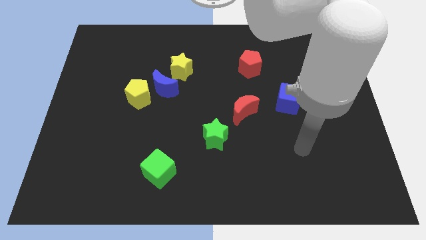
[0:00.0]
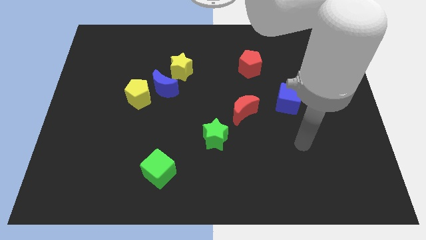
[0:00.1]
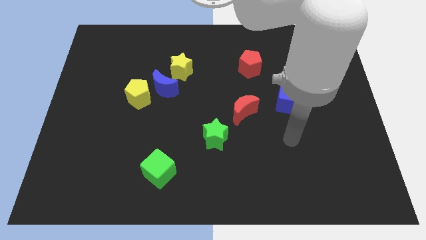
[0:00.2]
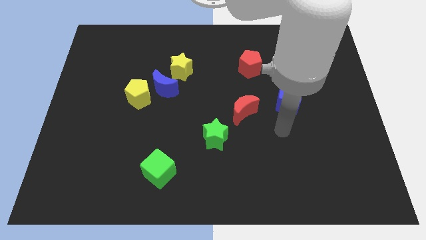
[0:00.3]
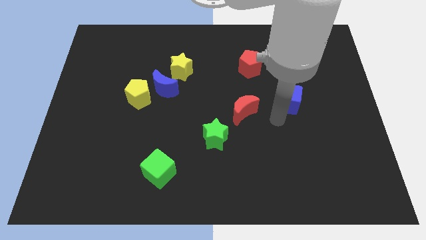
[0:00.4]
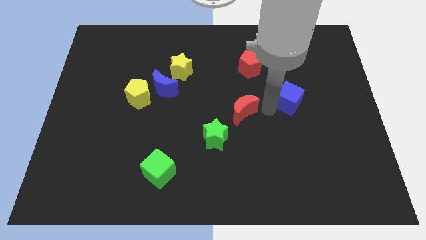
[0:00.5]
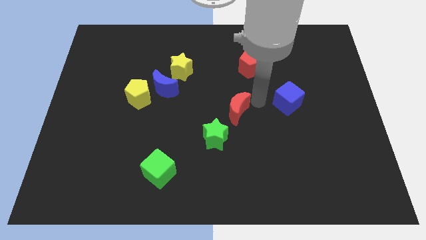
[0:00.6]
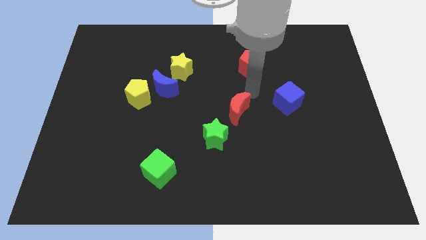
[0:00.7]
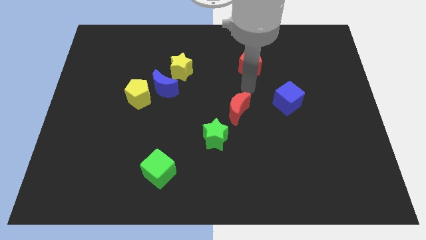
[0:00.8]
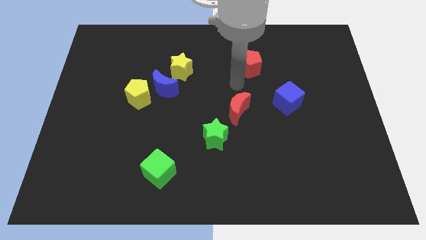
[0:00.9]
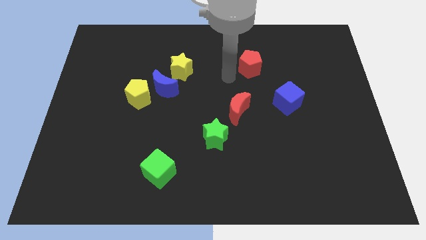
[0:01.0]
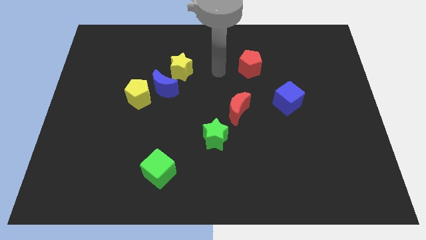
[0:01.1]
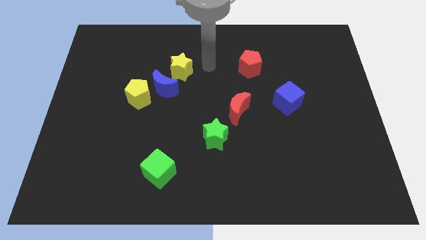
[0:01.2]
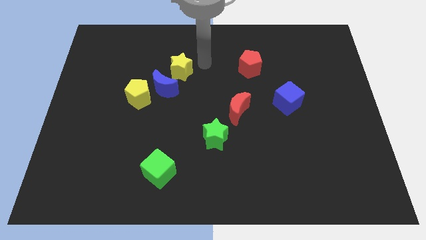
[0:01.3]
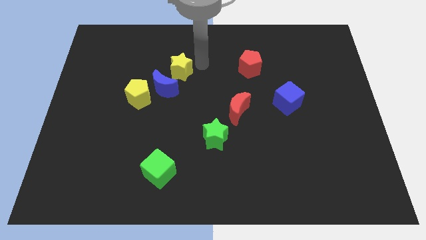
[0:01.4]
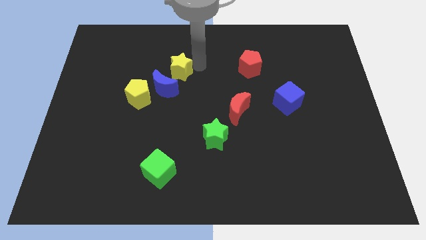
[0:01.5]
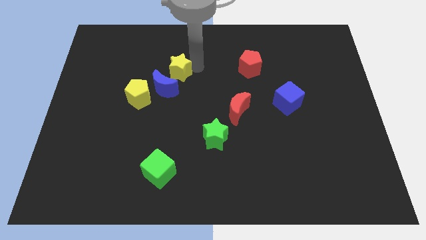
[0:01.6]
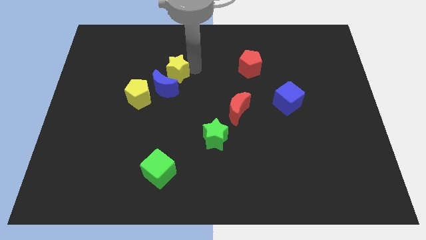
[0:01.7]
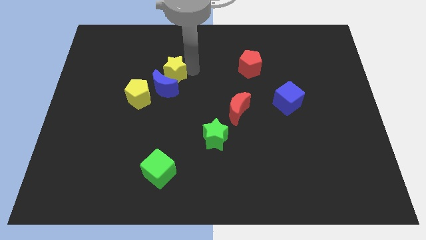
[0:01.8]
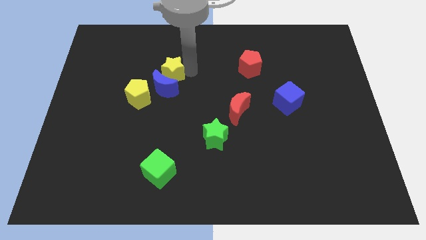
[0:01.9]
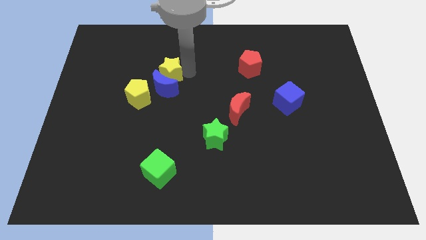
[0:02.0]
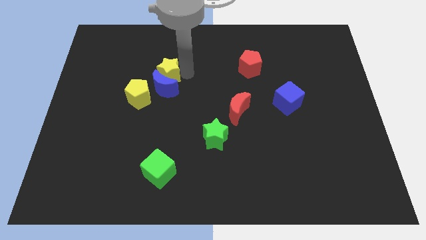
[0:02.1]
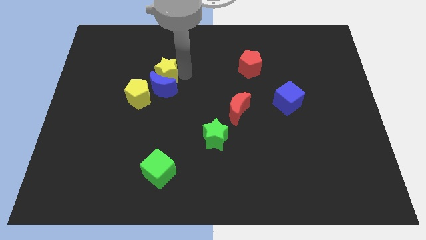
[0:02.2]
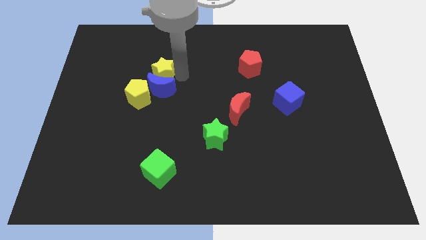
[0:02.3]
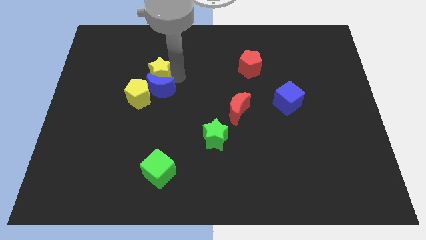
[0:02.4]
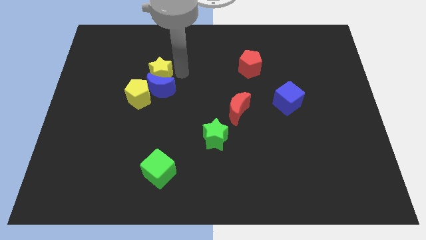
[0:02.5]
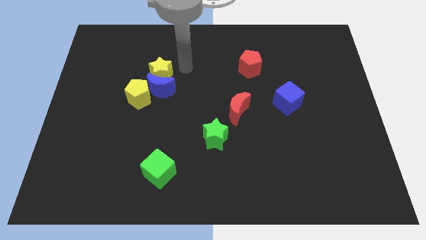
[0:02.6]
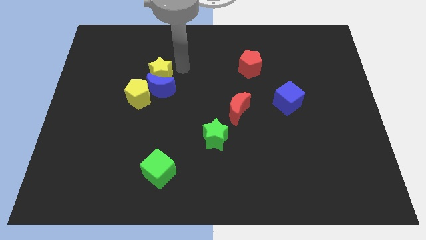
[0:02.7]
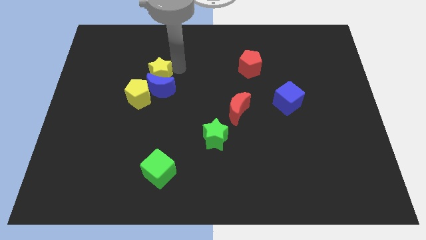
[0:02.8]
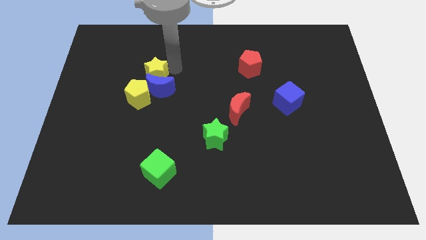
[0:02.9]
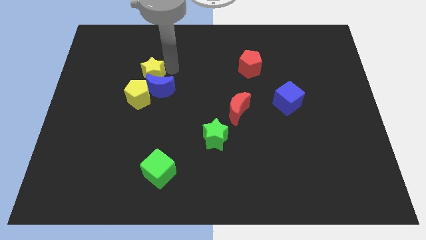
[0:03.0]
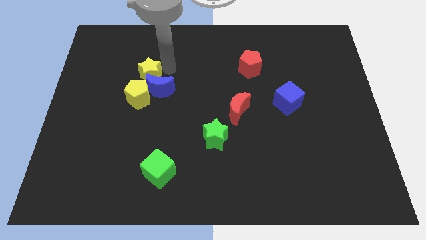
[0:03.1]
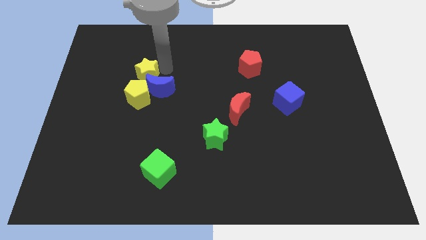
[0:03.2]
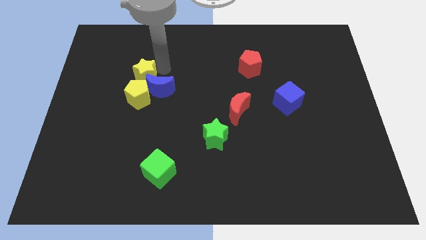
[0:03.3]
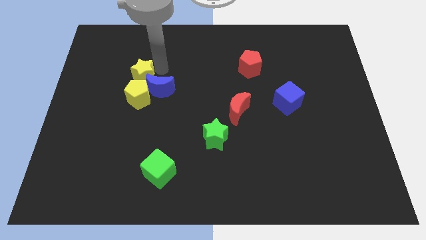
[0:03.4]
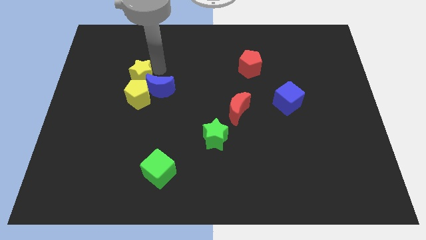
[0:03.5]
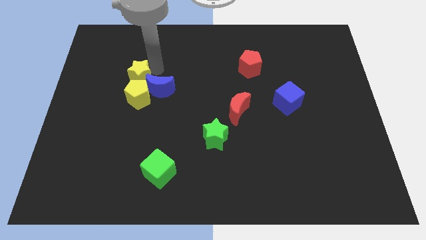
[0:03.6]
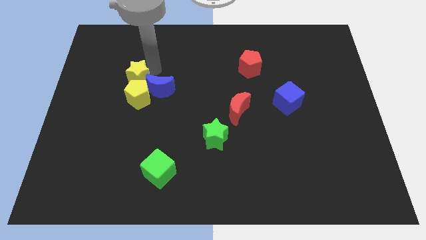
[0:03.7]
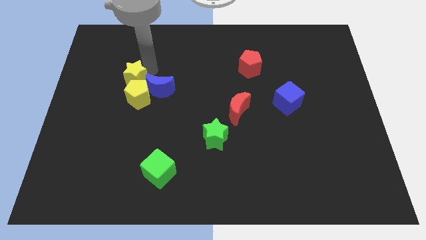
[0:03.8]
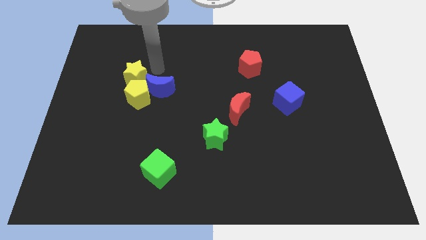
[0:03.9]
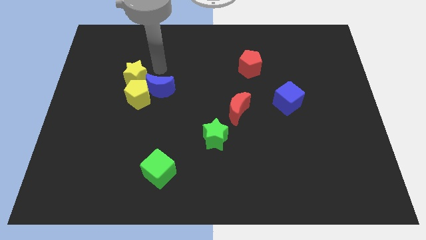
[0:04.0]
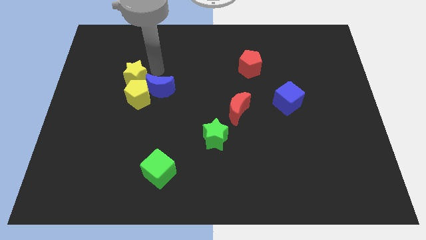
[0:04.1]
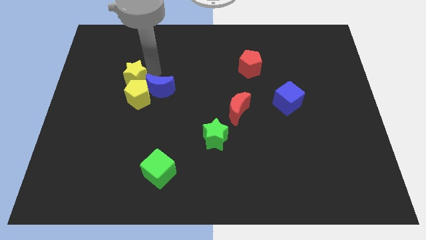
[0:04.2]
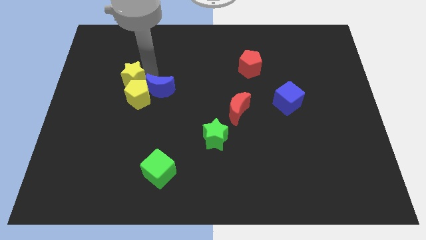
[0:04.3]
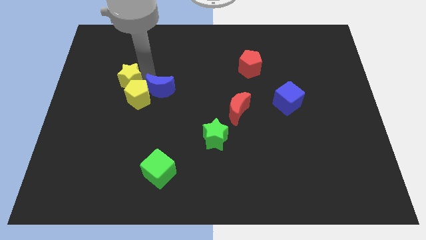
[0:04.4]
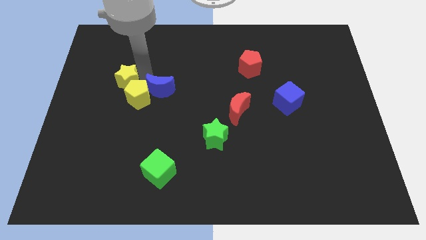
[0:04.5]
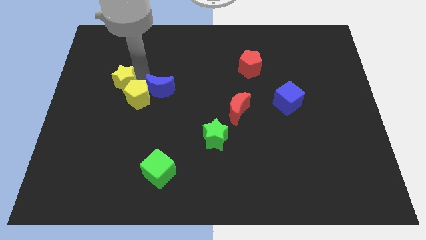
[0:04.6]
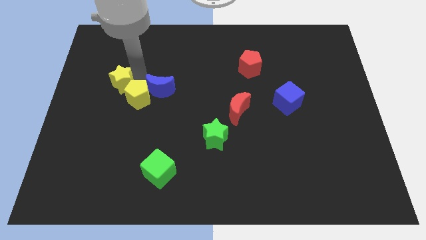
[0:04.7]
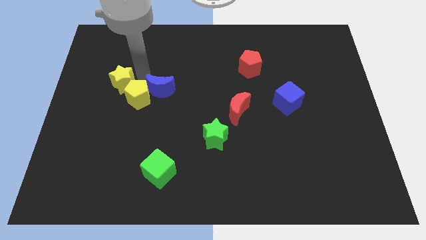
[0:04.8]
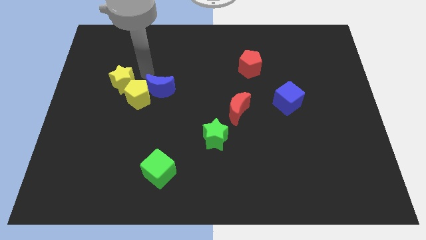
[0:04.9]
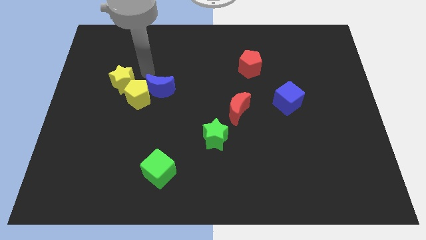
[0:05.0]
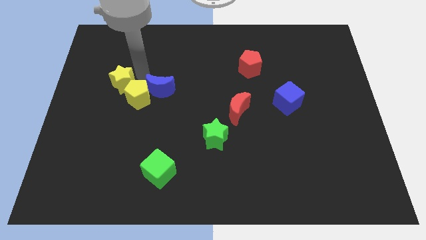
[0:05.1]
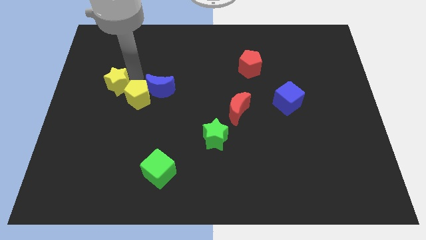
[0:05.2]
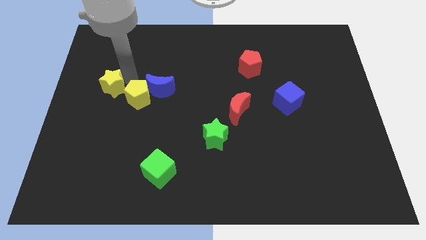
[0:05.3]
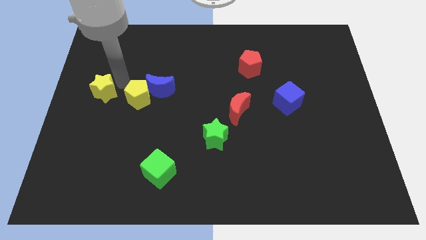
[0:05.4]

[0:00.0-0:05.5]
put the yellow star to the left side

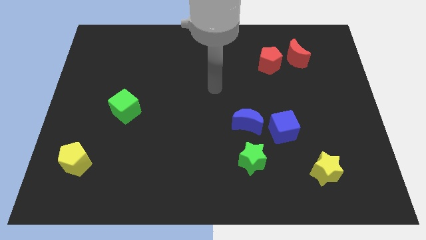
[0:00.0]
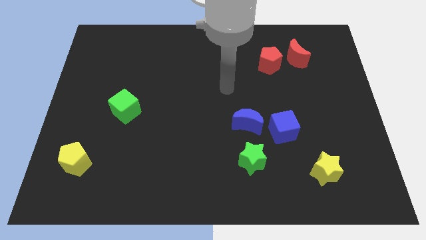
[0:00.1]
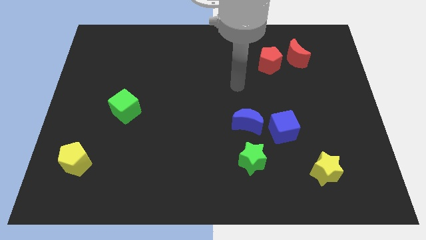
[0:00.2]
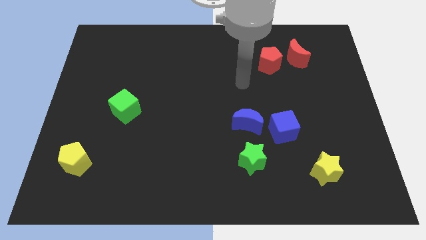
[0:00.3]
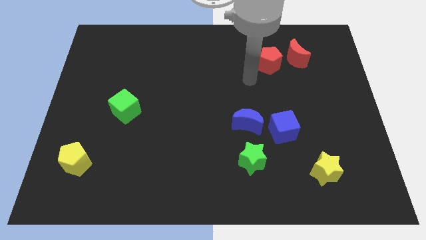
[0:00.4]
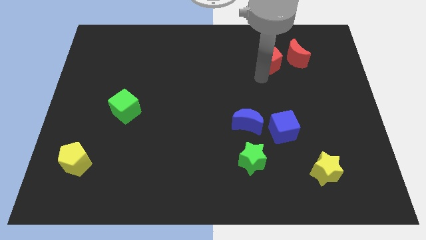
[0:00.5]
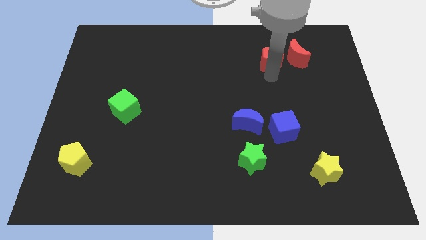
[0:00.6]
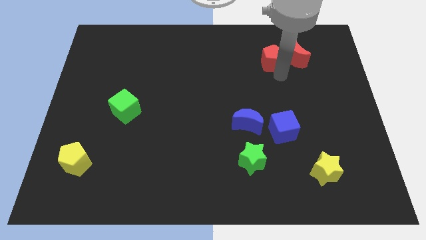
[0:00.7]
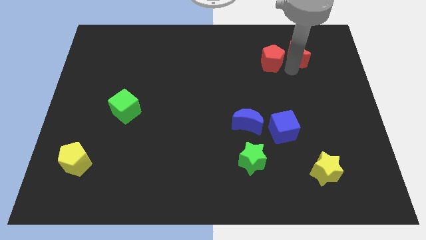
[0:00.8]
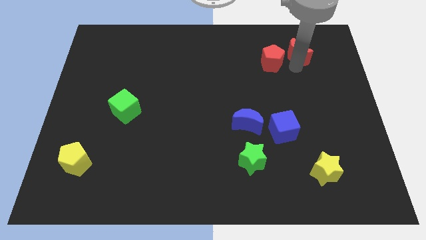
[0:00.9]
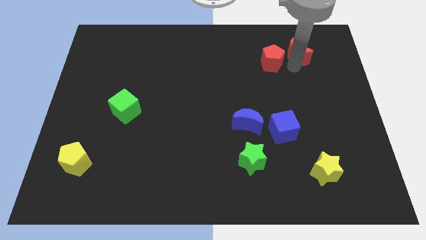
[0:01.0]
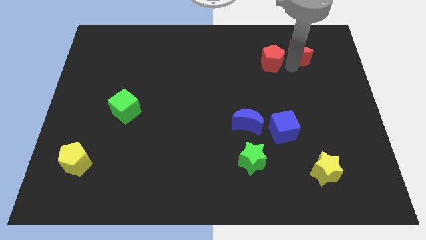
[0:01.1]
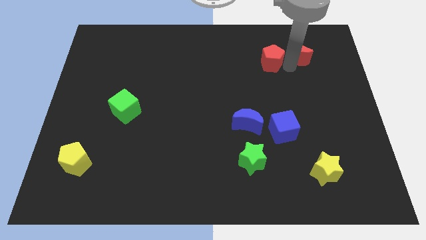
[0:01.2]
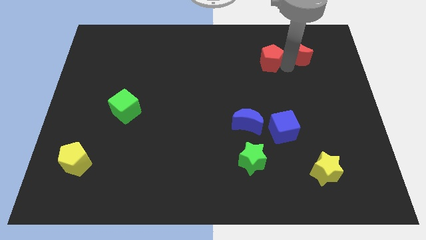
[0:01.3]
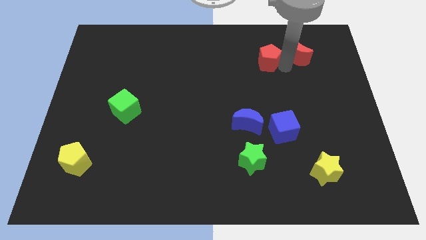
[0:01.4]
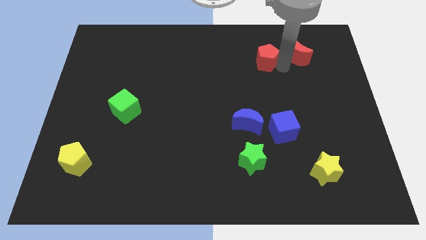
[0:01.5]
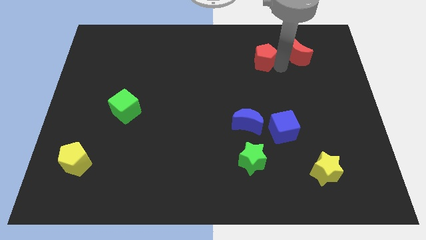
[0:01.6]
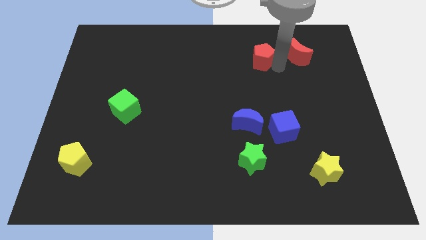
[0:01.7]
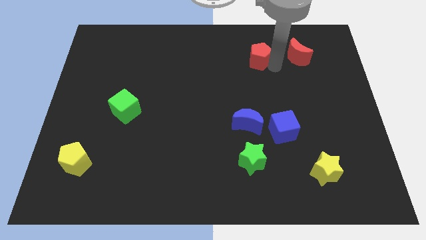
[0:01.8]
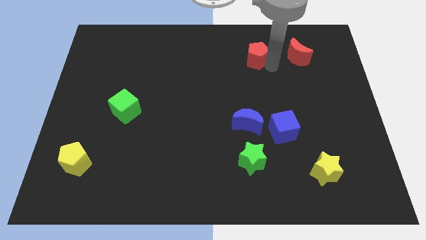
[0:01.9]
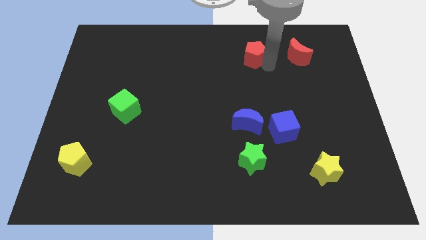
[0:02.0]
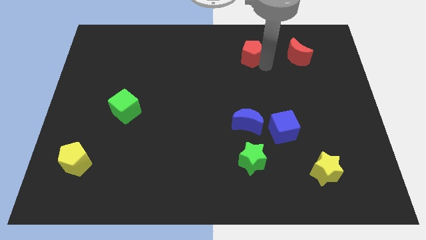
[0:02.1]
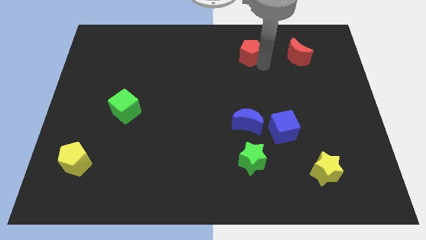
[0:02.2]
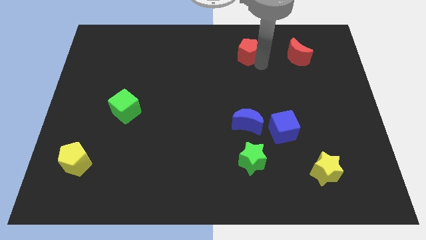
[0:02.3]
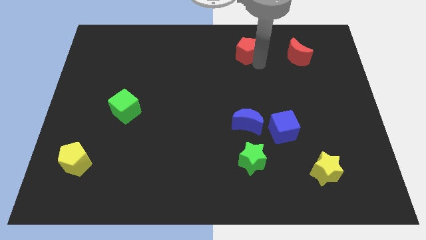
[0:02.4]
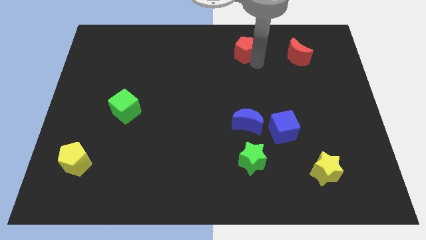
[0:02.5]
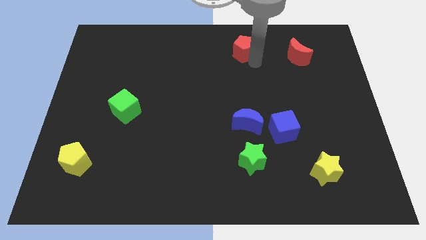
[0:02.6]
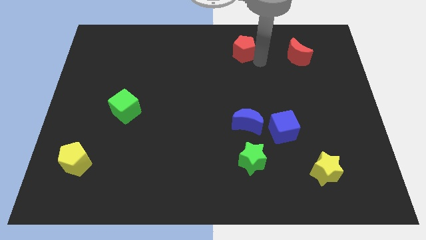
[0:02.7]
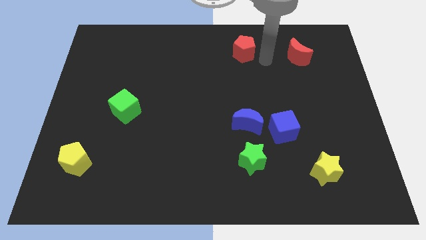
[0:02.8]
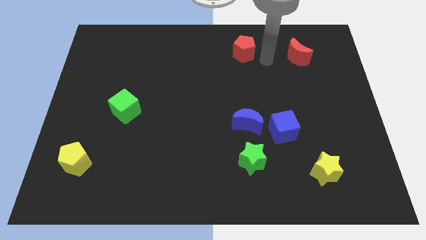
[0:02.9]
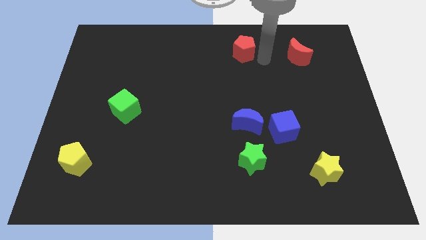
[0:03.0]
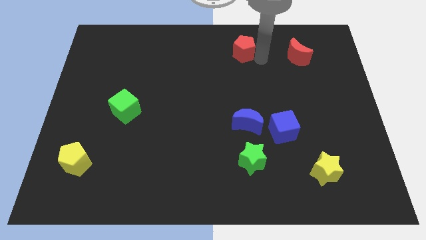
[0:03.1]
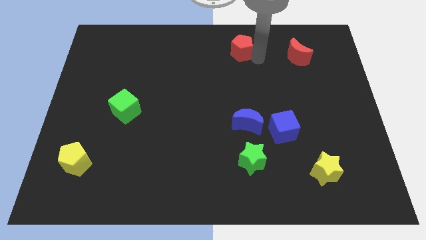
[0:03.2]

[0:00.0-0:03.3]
put the red pentagon to the towards your base
